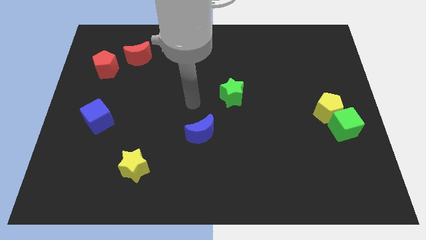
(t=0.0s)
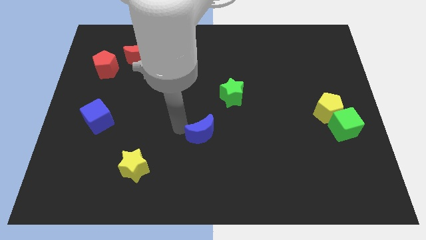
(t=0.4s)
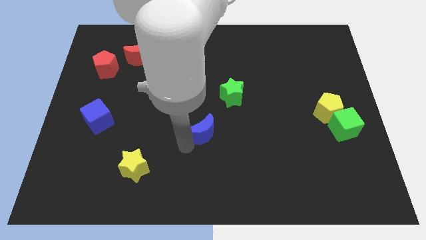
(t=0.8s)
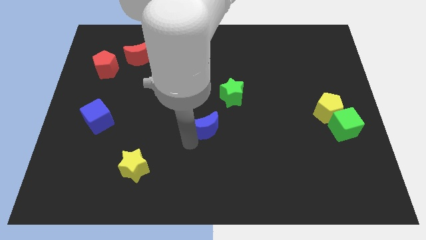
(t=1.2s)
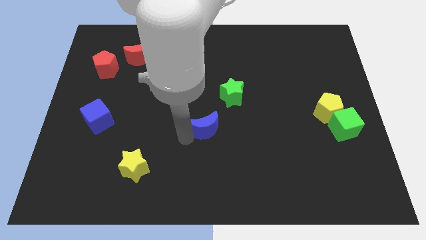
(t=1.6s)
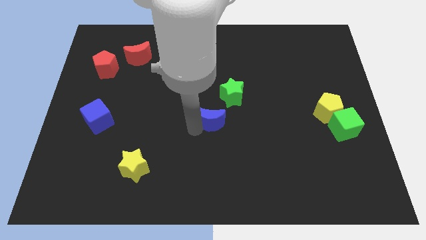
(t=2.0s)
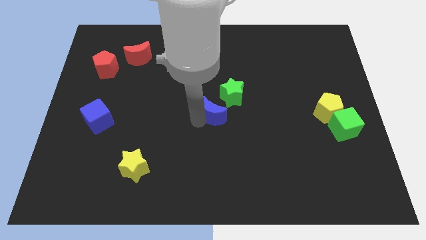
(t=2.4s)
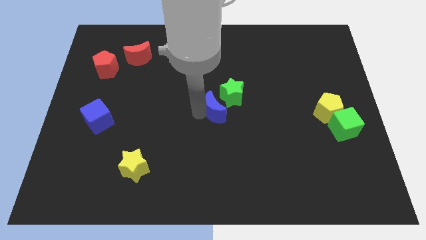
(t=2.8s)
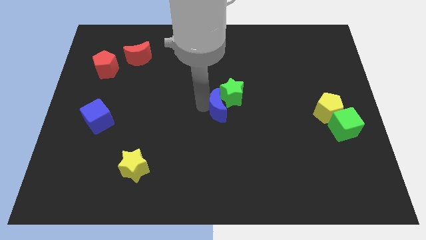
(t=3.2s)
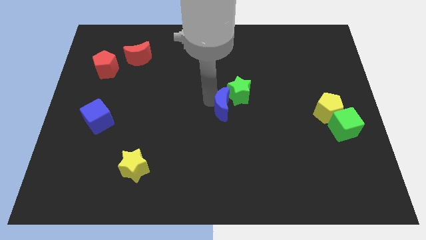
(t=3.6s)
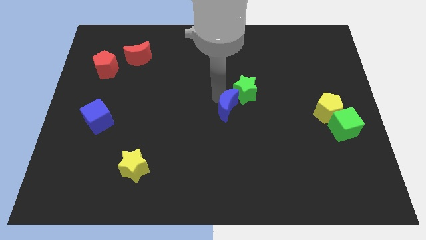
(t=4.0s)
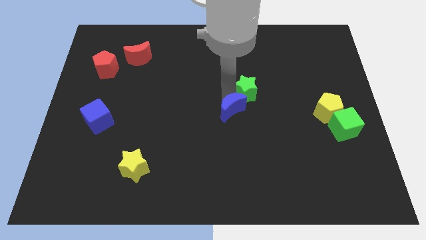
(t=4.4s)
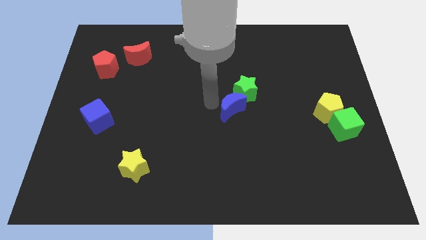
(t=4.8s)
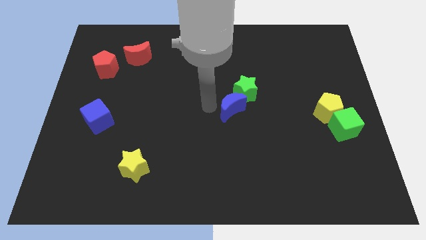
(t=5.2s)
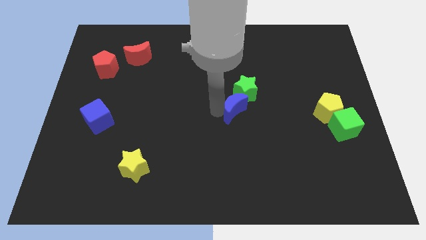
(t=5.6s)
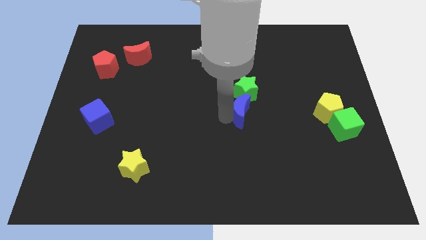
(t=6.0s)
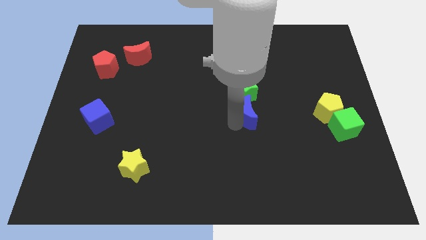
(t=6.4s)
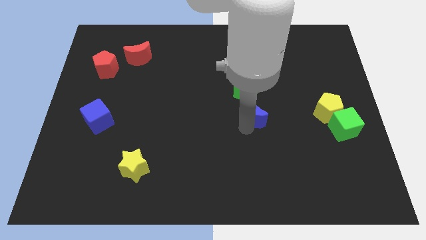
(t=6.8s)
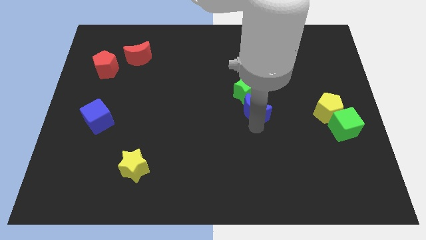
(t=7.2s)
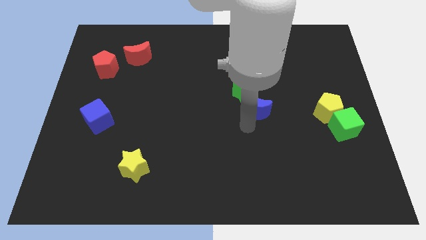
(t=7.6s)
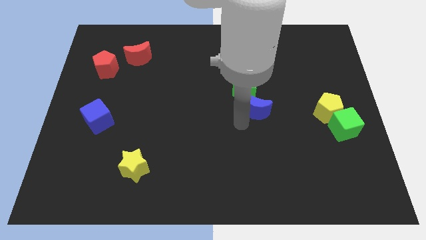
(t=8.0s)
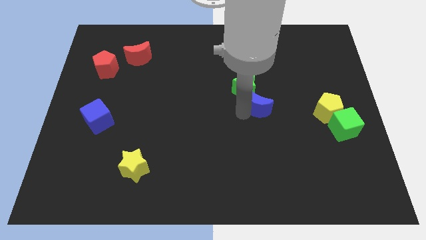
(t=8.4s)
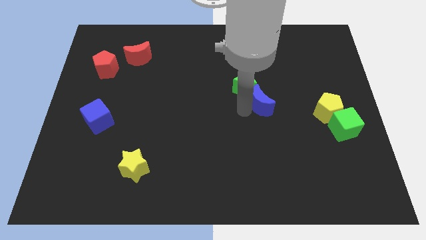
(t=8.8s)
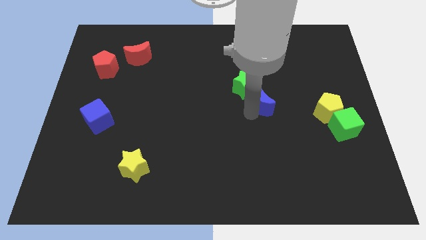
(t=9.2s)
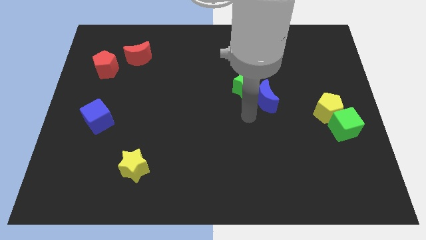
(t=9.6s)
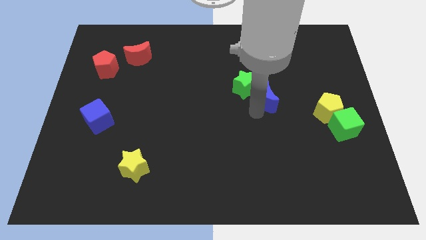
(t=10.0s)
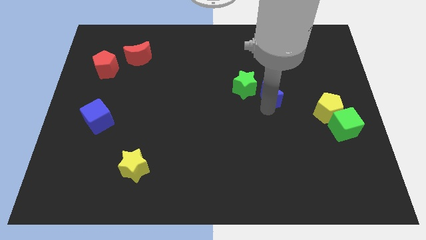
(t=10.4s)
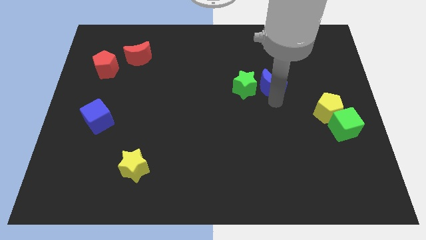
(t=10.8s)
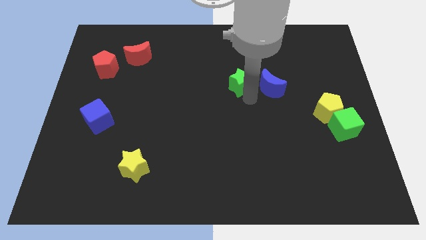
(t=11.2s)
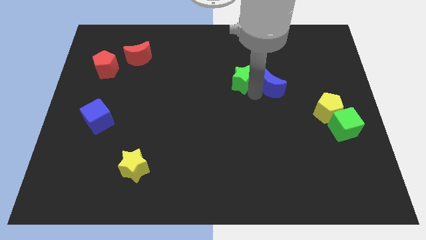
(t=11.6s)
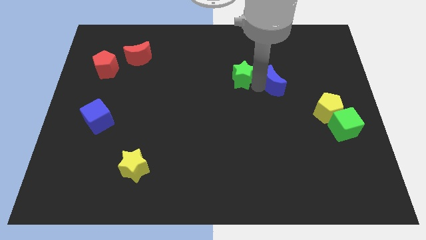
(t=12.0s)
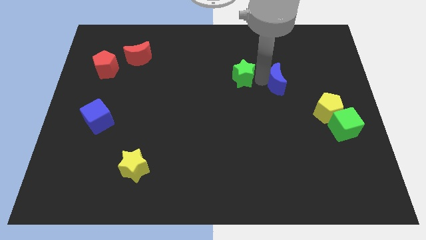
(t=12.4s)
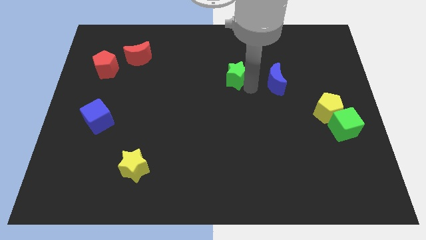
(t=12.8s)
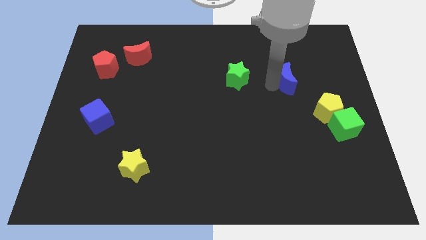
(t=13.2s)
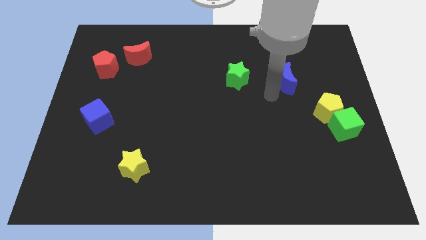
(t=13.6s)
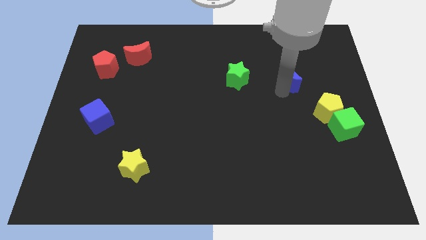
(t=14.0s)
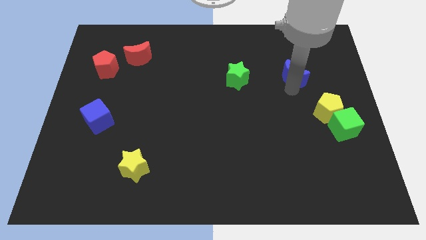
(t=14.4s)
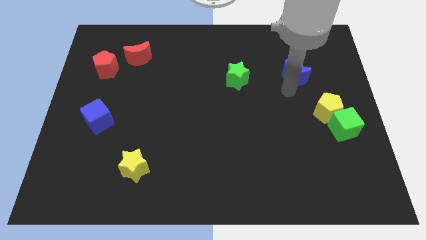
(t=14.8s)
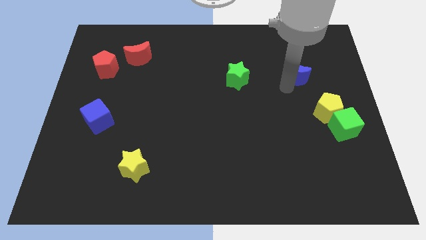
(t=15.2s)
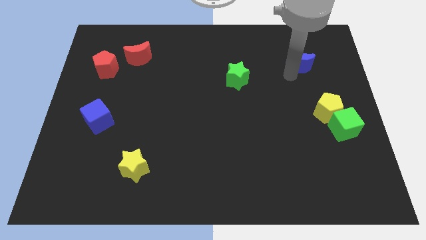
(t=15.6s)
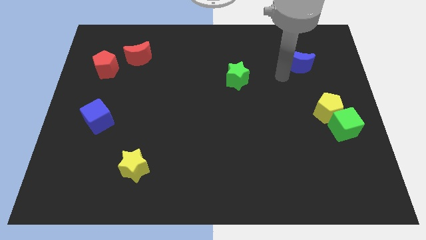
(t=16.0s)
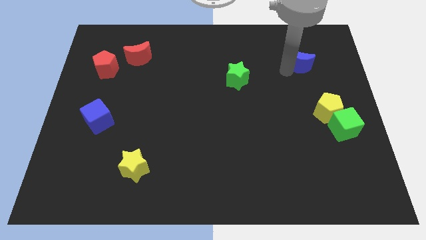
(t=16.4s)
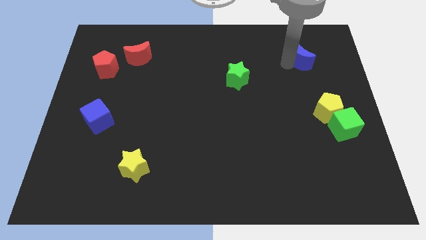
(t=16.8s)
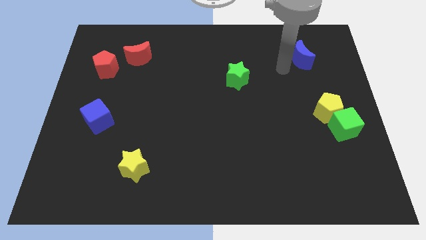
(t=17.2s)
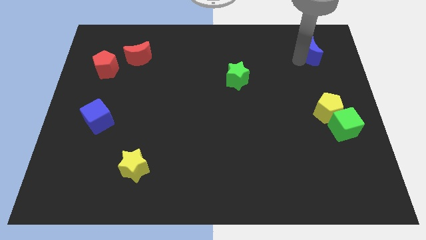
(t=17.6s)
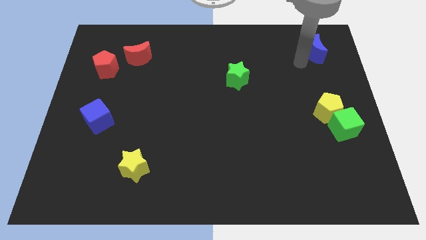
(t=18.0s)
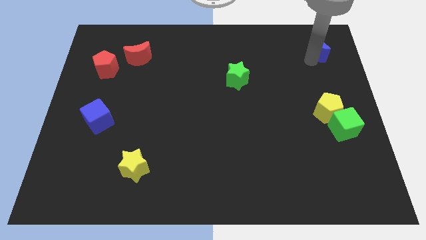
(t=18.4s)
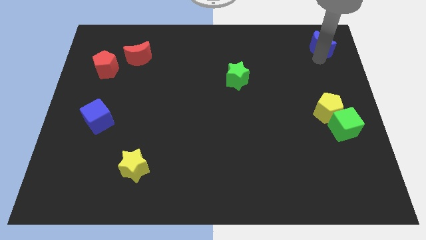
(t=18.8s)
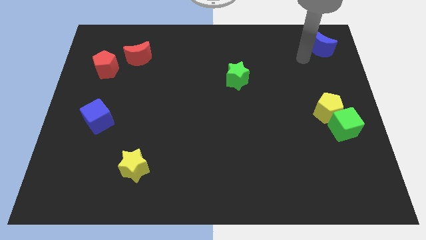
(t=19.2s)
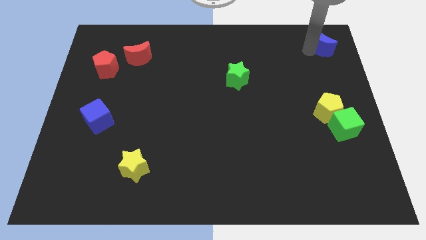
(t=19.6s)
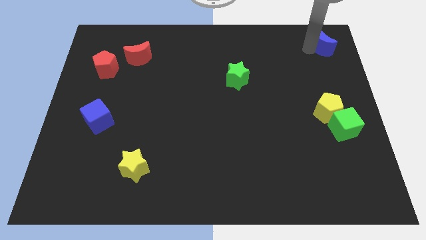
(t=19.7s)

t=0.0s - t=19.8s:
move the blue moon to the top right

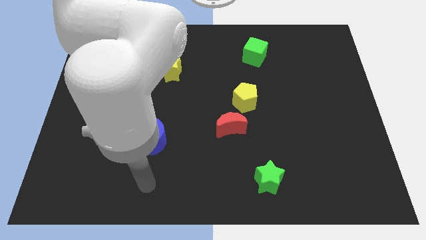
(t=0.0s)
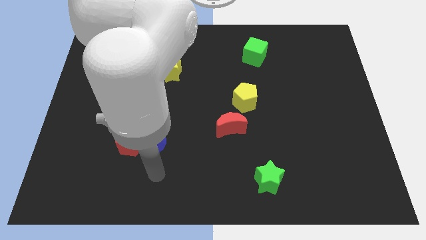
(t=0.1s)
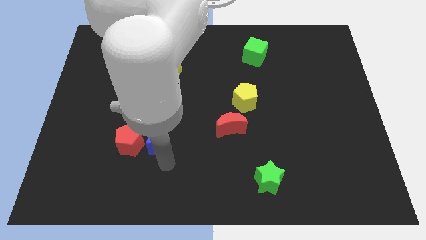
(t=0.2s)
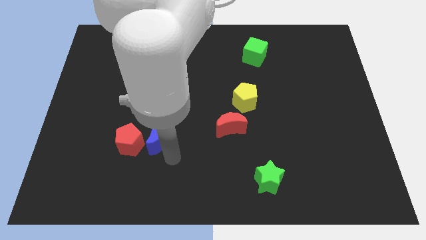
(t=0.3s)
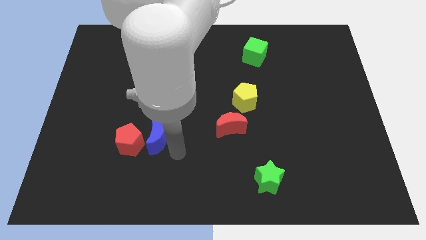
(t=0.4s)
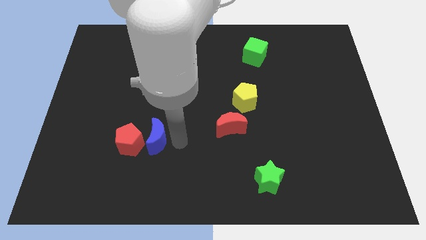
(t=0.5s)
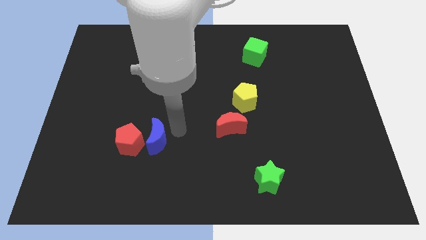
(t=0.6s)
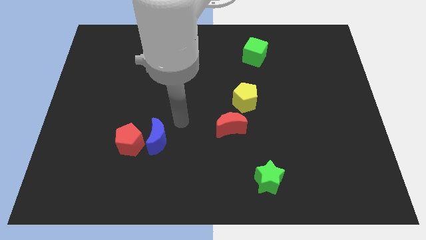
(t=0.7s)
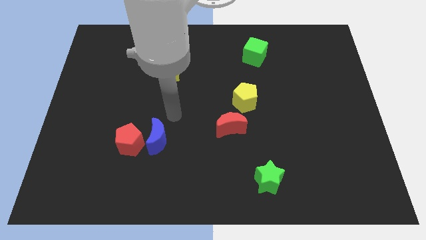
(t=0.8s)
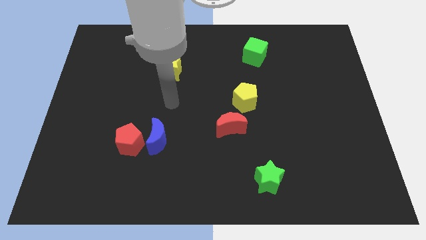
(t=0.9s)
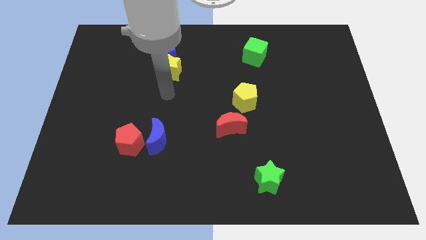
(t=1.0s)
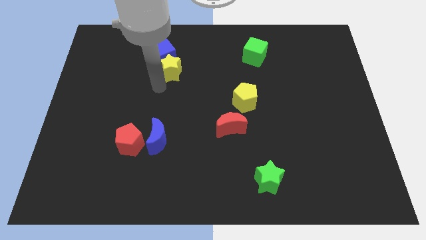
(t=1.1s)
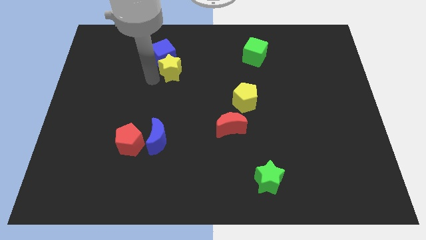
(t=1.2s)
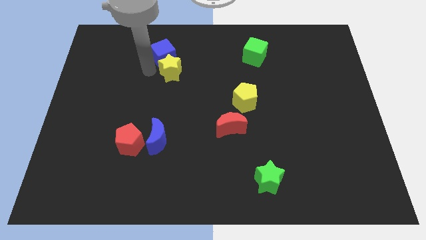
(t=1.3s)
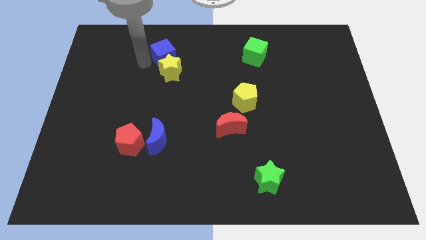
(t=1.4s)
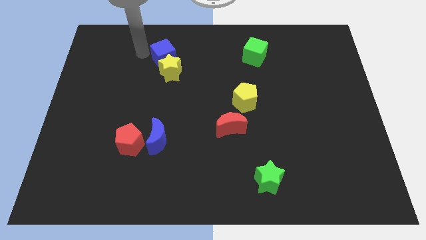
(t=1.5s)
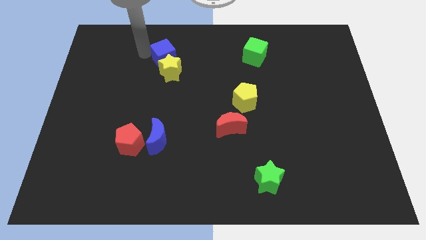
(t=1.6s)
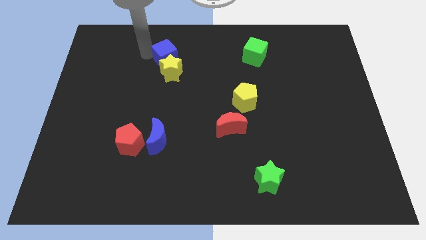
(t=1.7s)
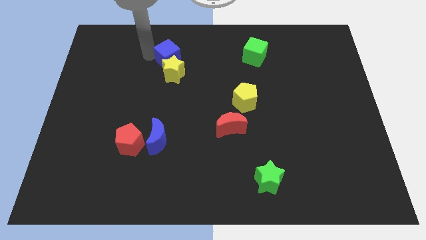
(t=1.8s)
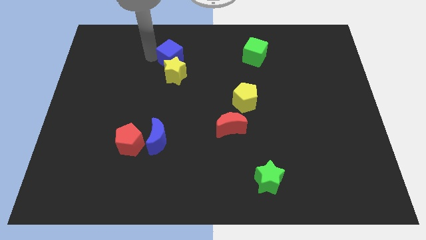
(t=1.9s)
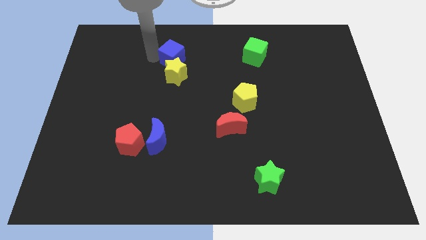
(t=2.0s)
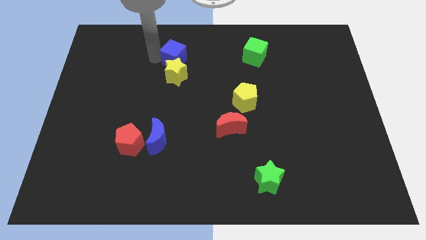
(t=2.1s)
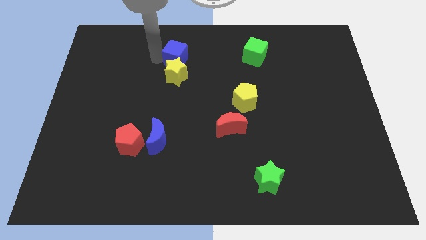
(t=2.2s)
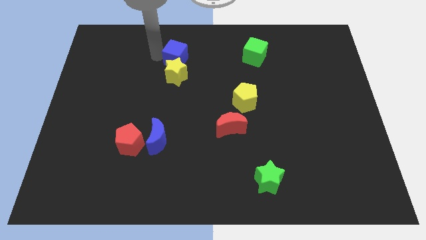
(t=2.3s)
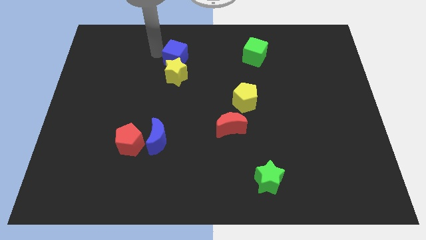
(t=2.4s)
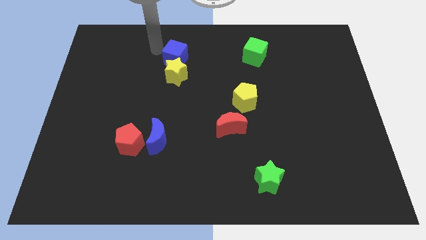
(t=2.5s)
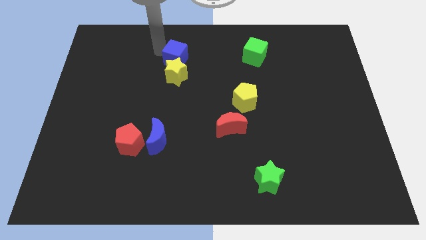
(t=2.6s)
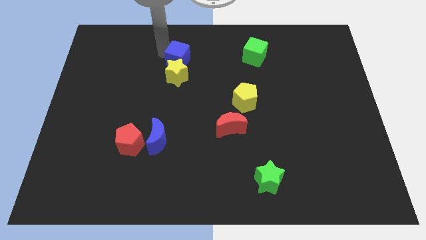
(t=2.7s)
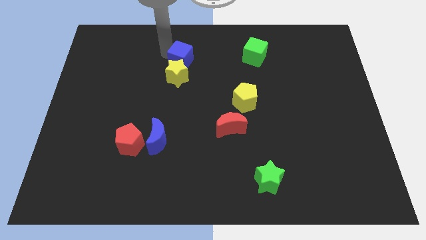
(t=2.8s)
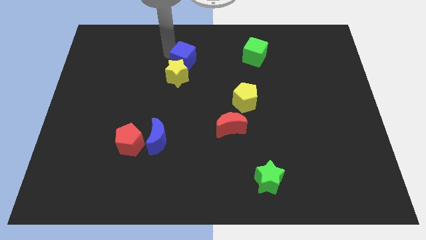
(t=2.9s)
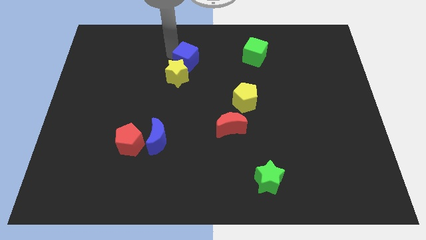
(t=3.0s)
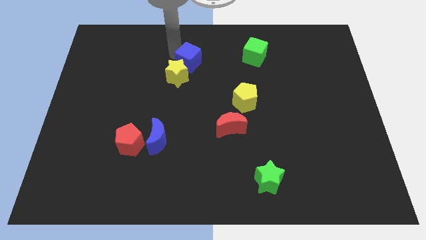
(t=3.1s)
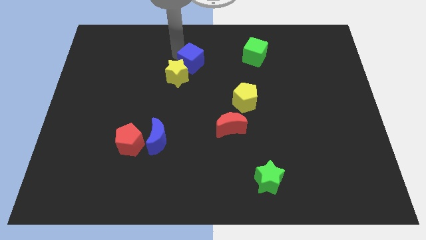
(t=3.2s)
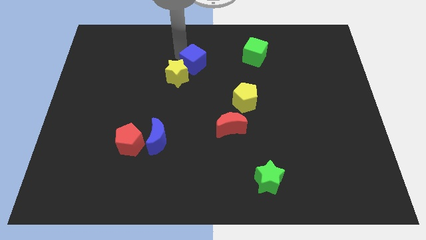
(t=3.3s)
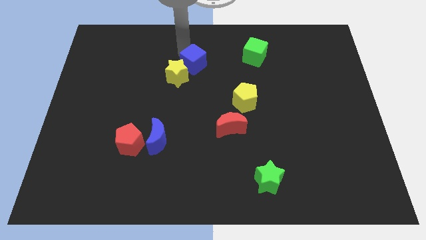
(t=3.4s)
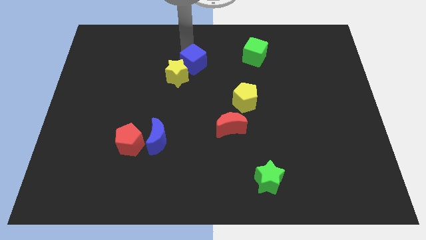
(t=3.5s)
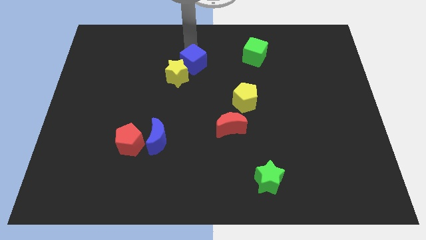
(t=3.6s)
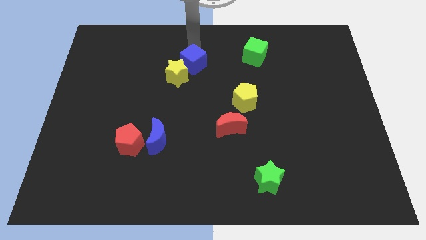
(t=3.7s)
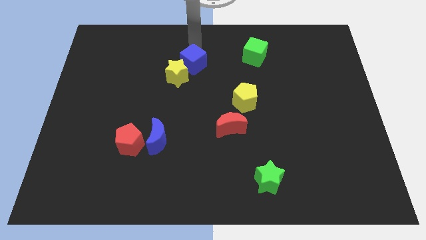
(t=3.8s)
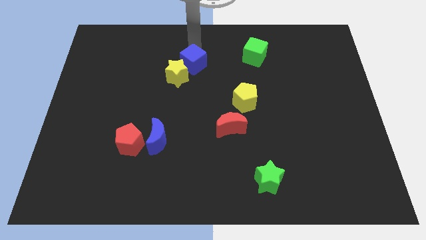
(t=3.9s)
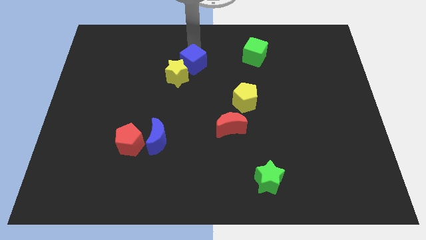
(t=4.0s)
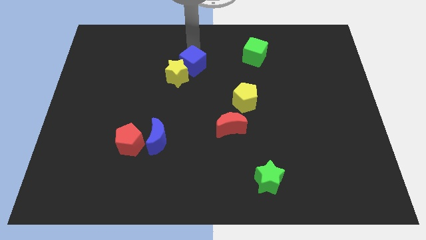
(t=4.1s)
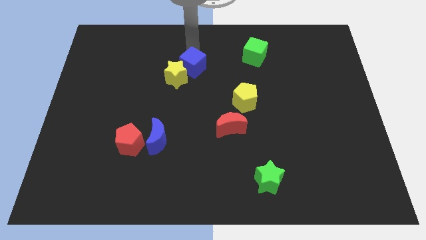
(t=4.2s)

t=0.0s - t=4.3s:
move the blue cube to the center
